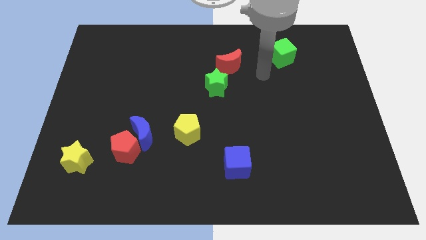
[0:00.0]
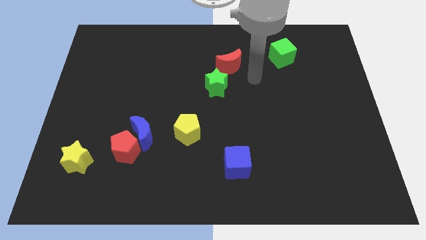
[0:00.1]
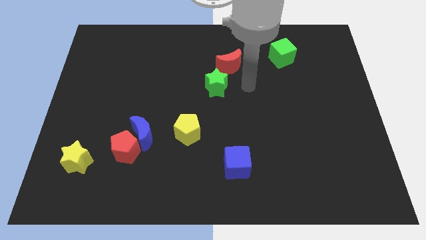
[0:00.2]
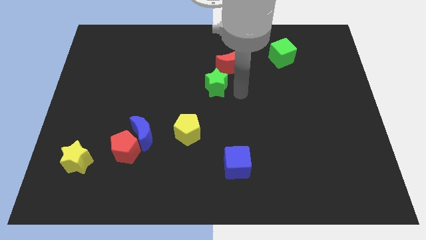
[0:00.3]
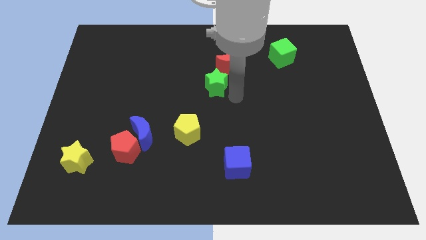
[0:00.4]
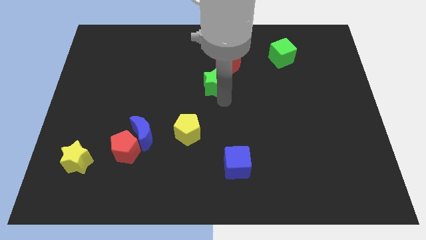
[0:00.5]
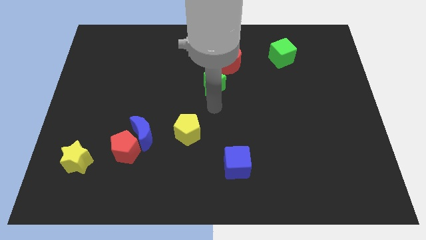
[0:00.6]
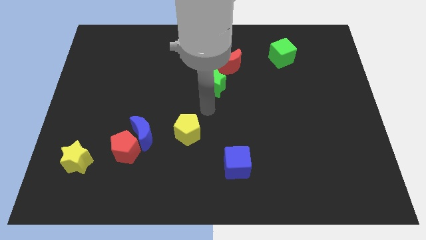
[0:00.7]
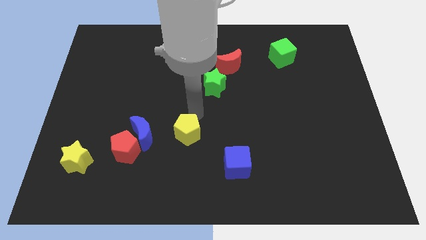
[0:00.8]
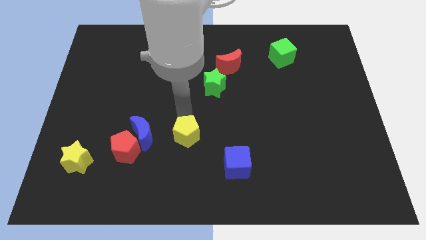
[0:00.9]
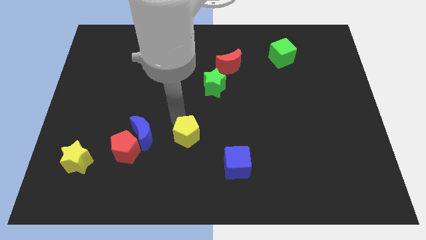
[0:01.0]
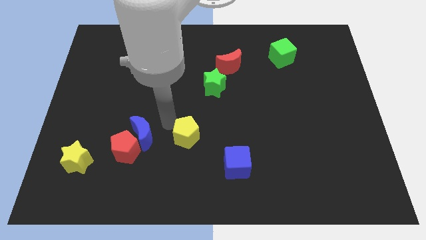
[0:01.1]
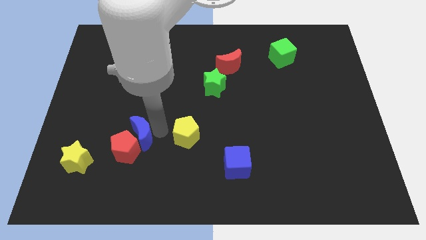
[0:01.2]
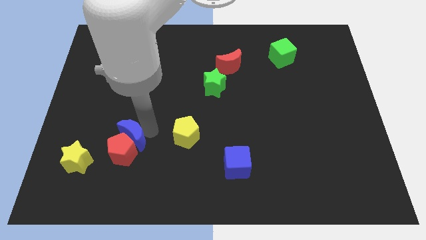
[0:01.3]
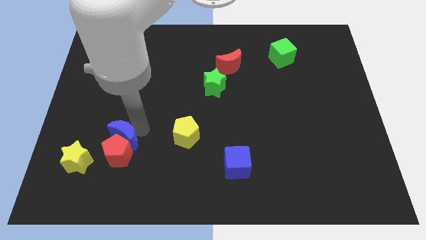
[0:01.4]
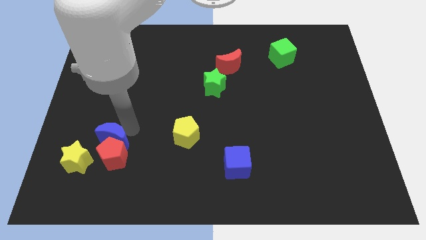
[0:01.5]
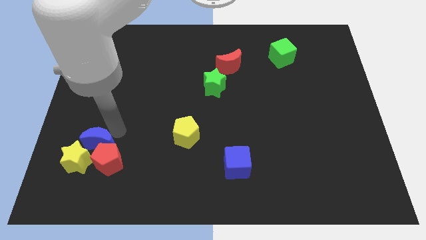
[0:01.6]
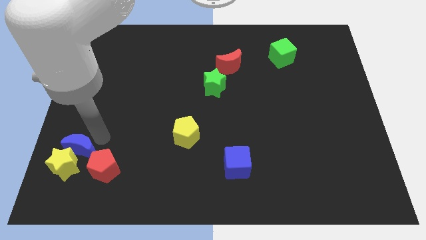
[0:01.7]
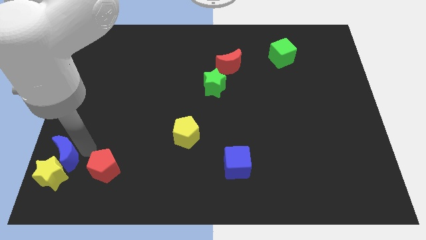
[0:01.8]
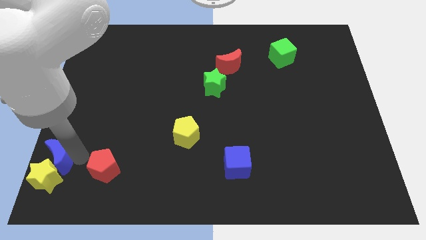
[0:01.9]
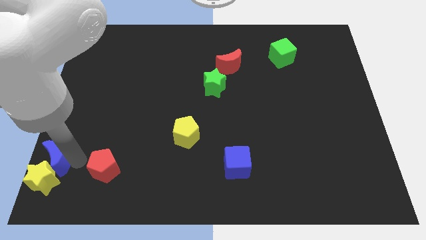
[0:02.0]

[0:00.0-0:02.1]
move the red pentagon away from the blue moon

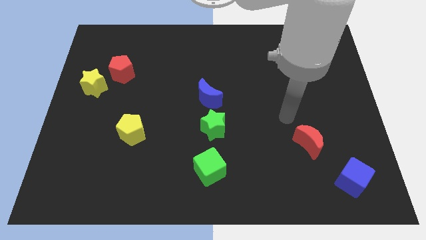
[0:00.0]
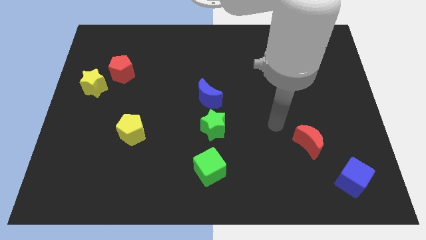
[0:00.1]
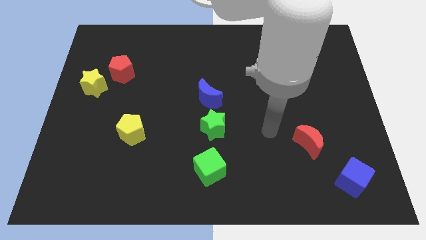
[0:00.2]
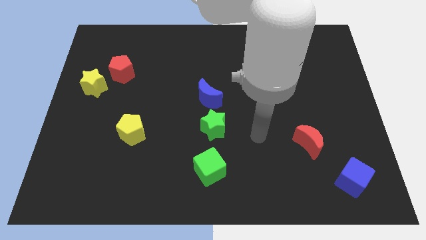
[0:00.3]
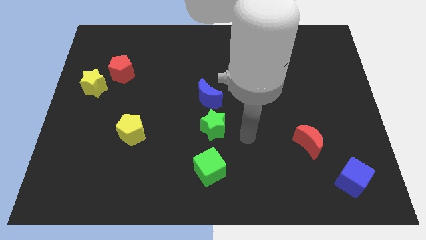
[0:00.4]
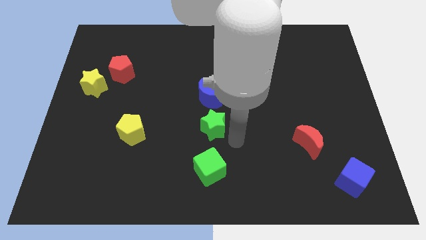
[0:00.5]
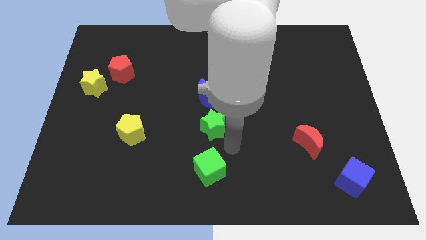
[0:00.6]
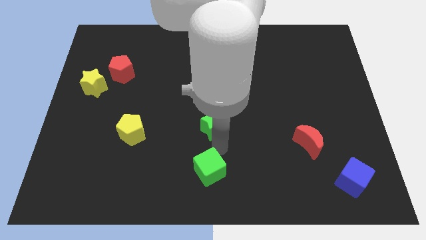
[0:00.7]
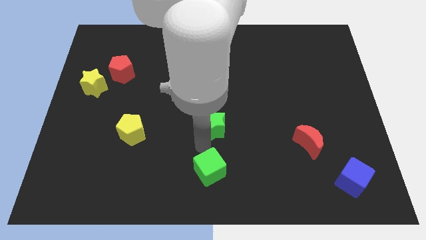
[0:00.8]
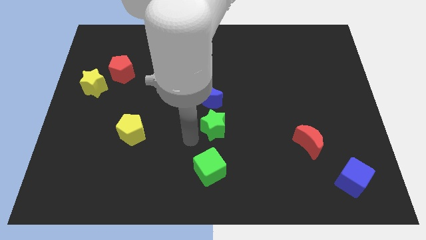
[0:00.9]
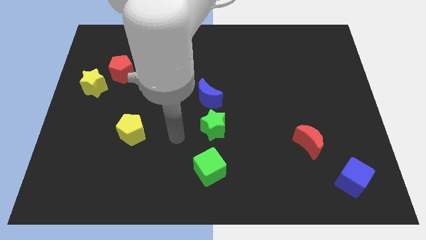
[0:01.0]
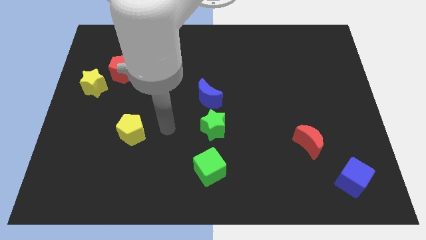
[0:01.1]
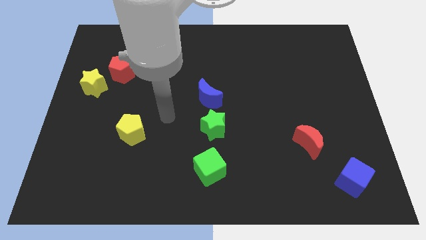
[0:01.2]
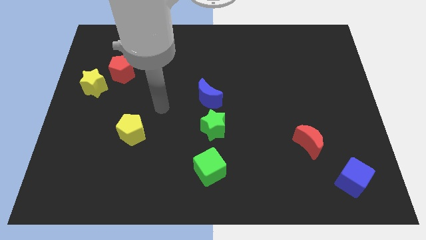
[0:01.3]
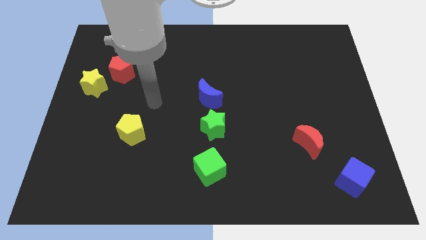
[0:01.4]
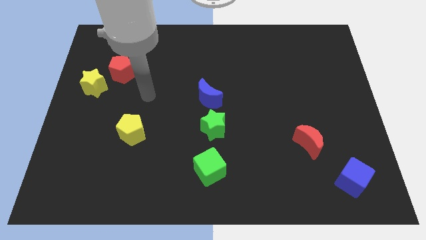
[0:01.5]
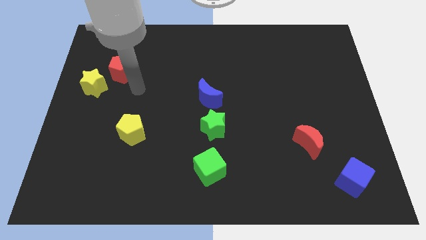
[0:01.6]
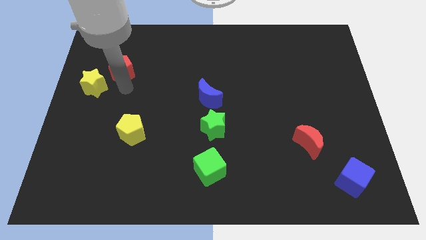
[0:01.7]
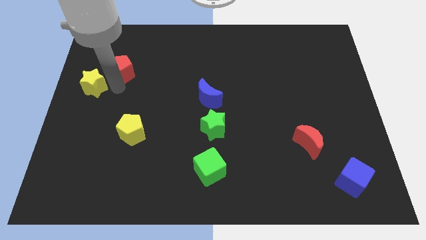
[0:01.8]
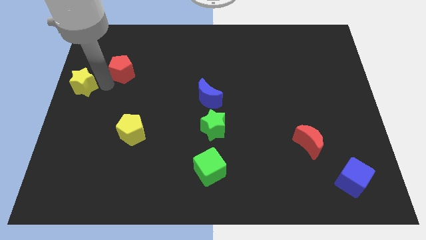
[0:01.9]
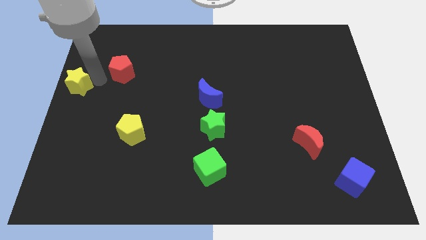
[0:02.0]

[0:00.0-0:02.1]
move the red pentagon away from the yellow star

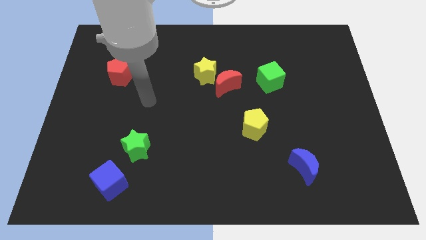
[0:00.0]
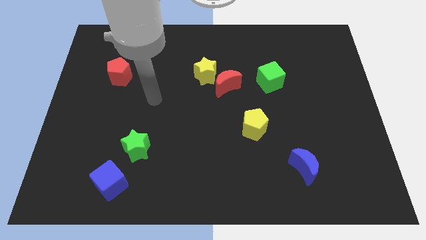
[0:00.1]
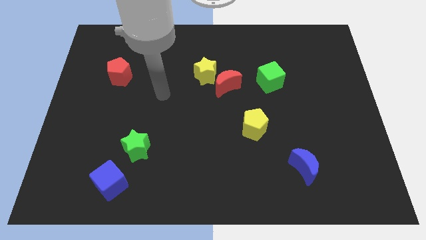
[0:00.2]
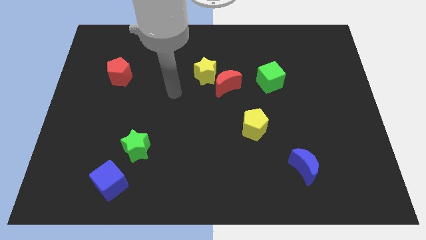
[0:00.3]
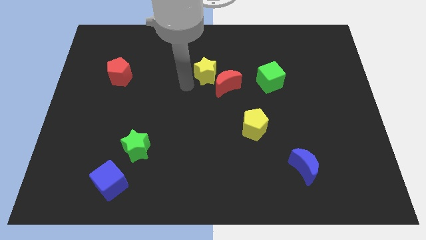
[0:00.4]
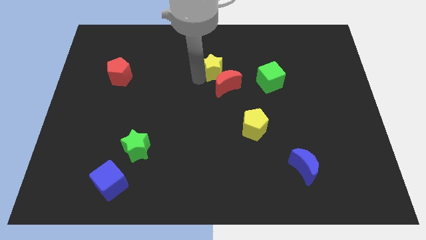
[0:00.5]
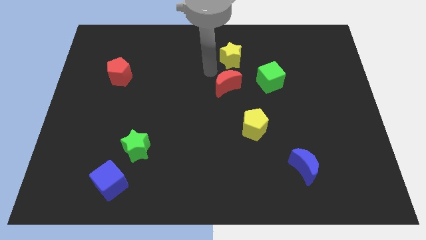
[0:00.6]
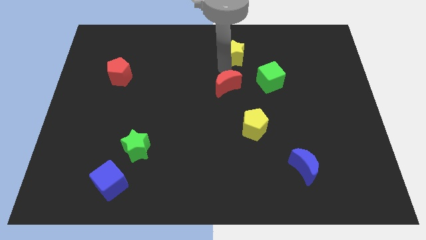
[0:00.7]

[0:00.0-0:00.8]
separate the red moon from the yellow star

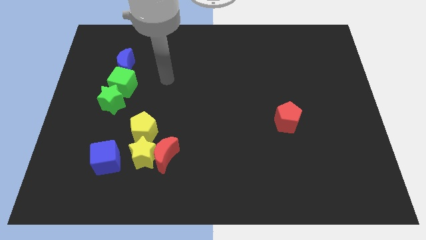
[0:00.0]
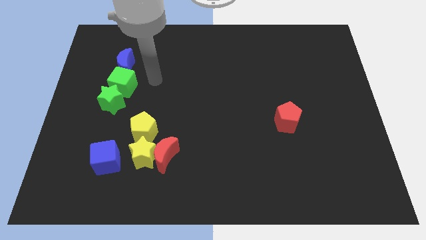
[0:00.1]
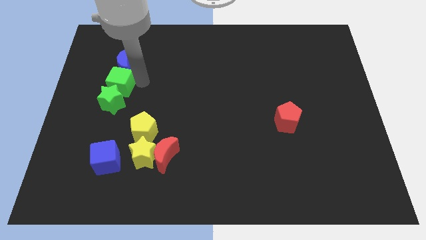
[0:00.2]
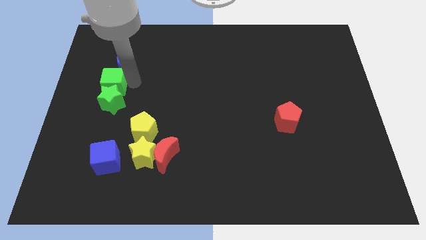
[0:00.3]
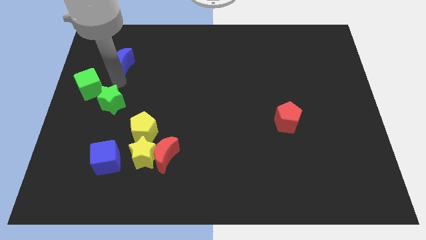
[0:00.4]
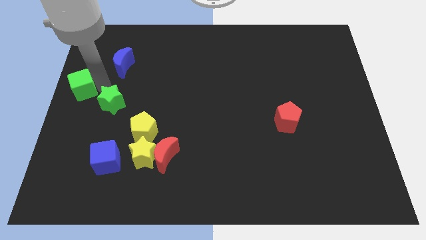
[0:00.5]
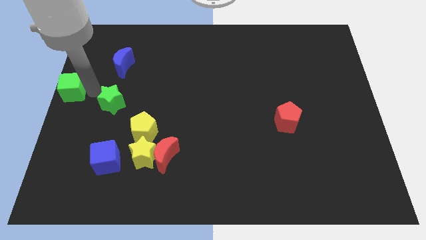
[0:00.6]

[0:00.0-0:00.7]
pull the green star apart from the green cube

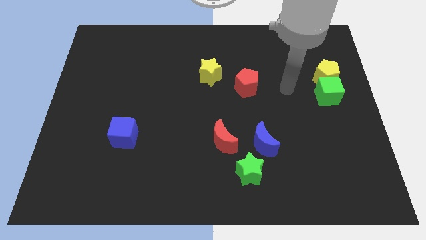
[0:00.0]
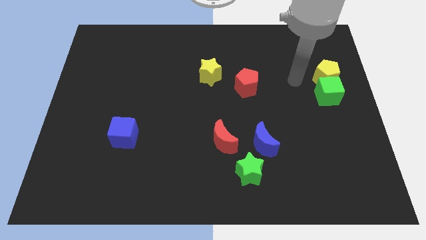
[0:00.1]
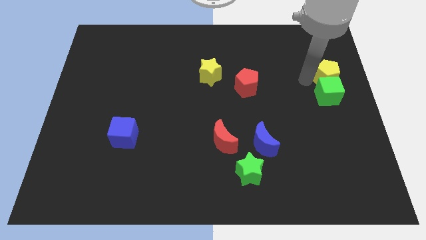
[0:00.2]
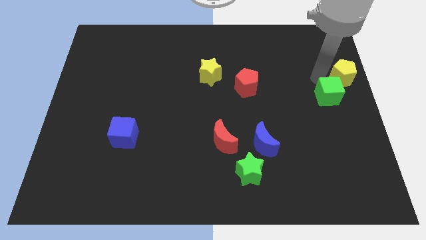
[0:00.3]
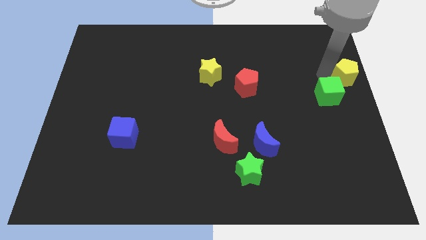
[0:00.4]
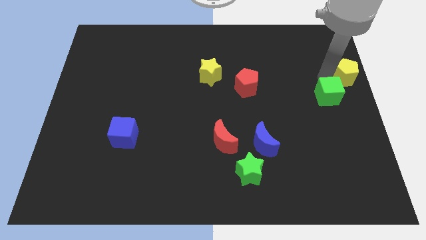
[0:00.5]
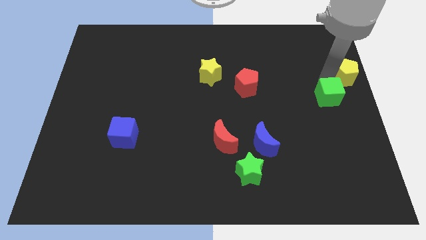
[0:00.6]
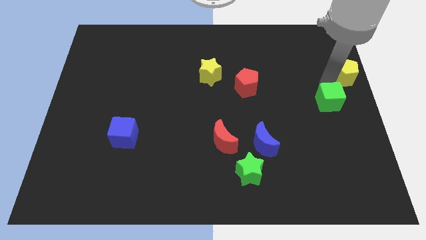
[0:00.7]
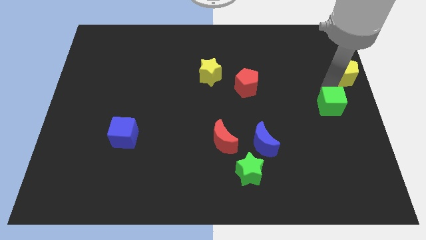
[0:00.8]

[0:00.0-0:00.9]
move the green cube away from the yellow pentagon

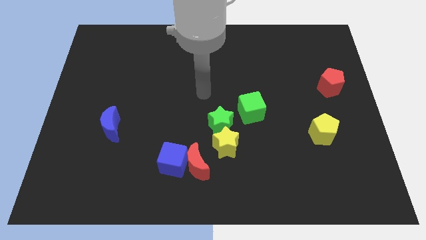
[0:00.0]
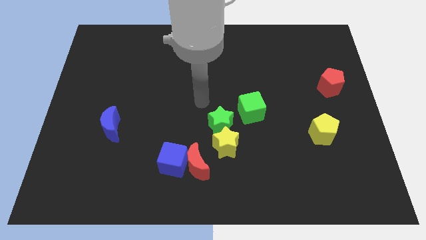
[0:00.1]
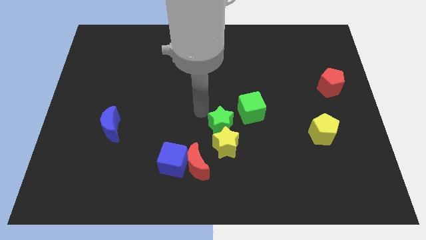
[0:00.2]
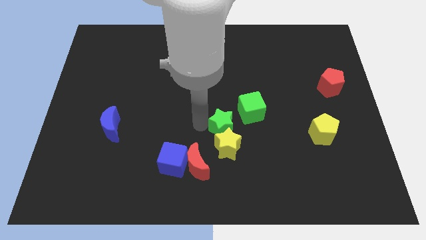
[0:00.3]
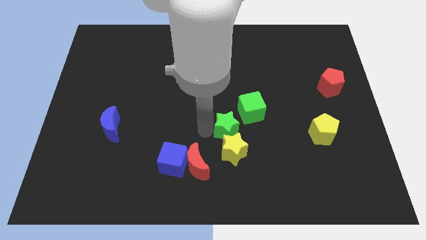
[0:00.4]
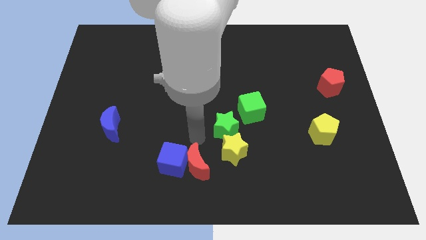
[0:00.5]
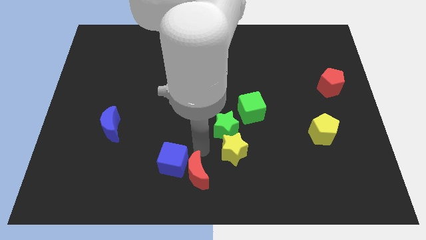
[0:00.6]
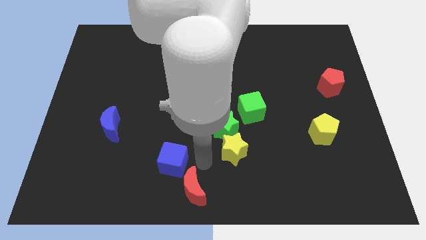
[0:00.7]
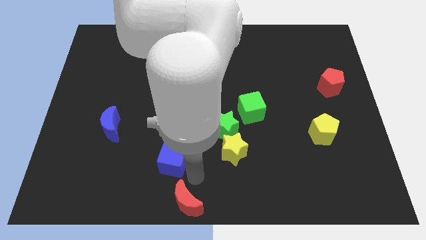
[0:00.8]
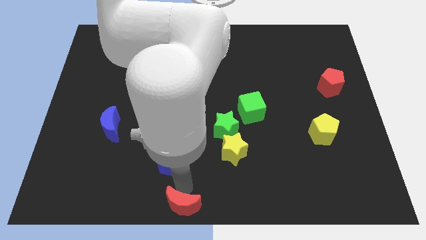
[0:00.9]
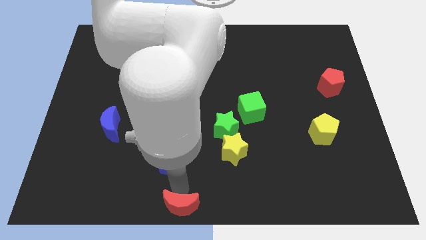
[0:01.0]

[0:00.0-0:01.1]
move the blue cube away from the red moon

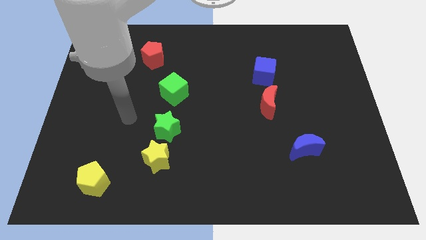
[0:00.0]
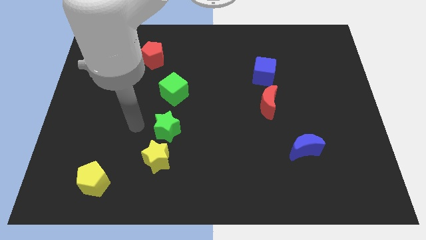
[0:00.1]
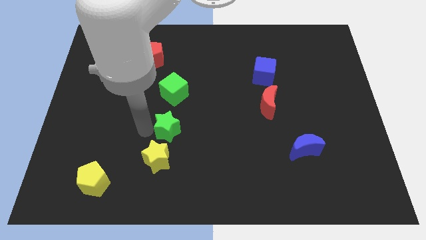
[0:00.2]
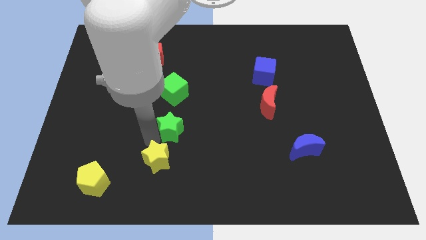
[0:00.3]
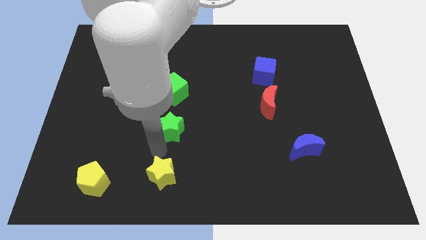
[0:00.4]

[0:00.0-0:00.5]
separate the green star from the yellow star

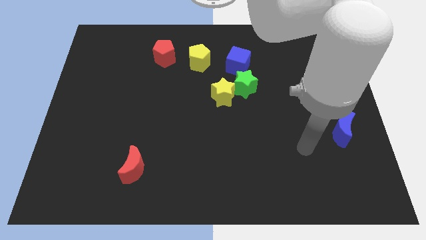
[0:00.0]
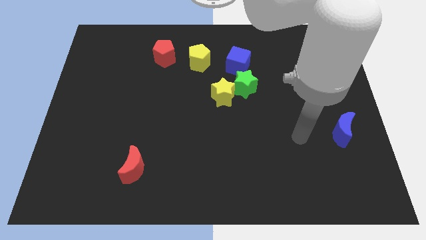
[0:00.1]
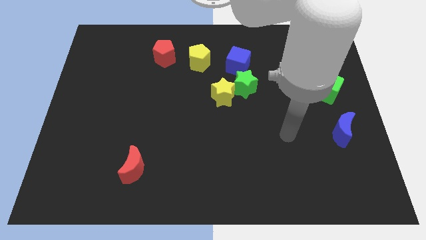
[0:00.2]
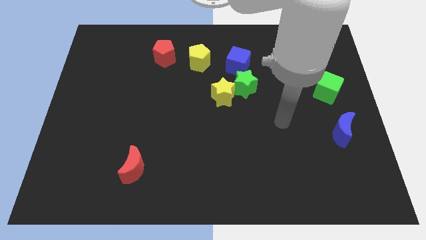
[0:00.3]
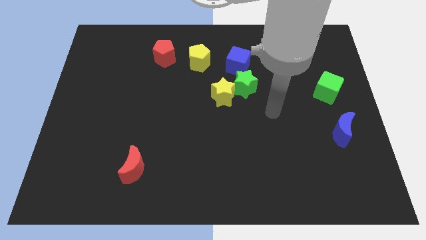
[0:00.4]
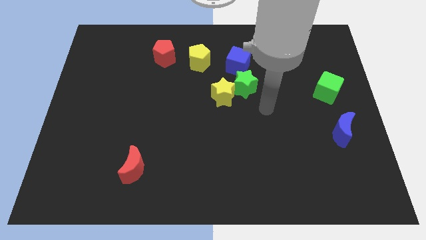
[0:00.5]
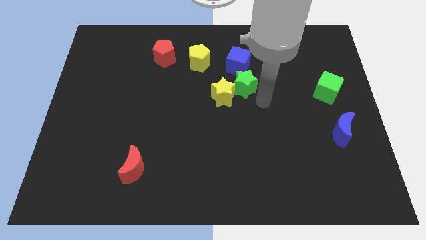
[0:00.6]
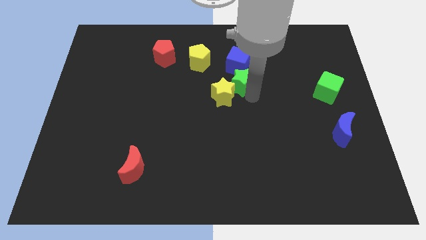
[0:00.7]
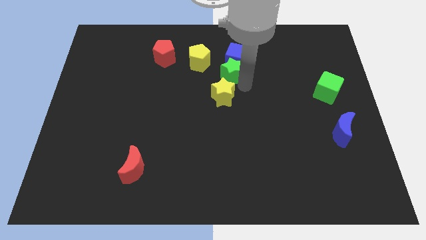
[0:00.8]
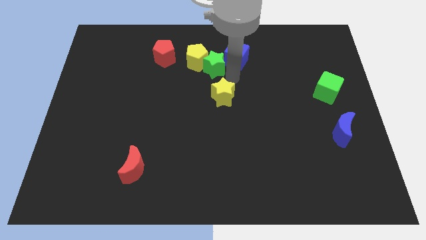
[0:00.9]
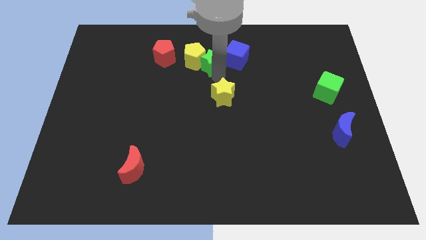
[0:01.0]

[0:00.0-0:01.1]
move the yellow star away from the green star
